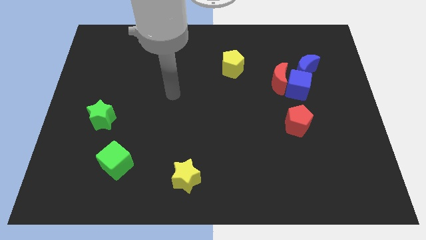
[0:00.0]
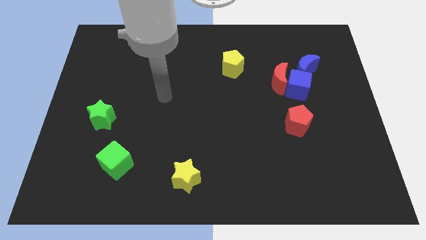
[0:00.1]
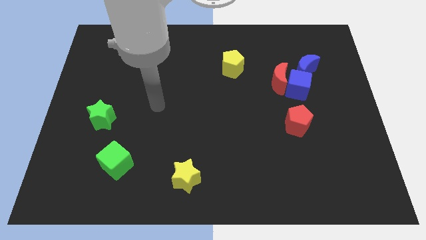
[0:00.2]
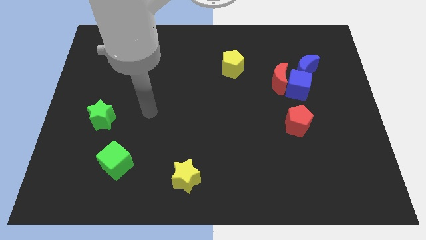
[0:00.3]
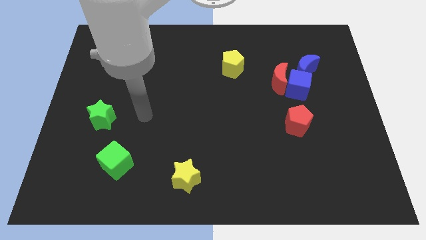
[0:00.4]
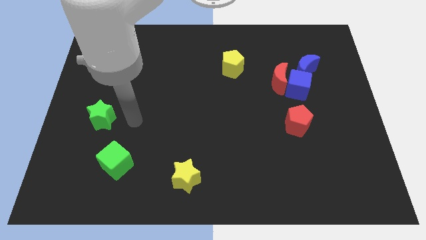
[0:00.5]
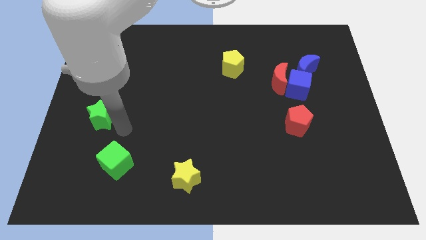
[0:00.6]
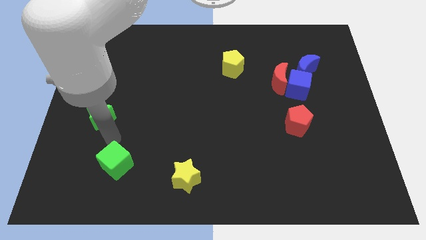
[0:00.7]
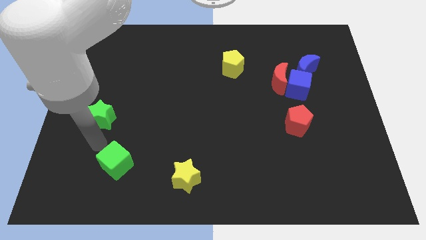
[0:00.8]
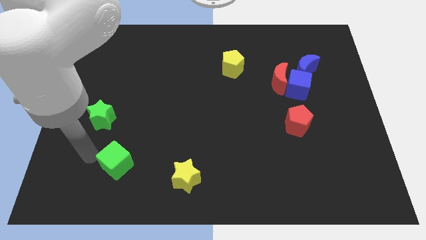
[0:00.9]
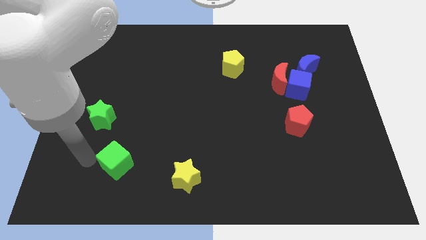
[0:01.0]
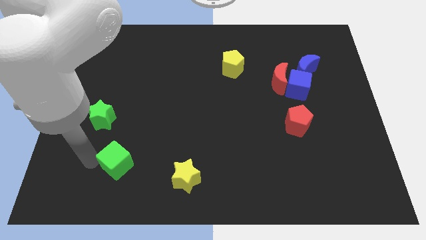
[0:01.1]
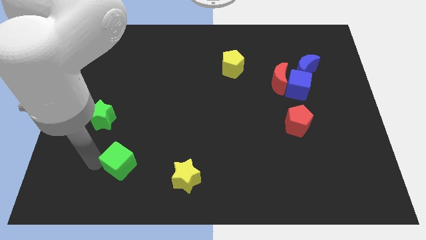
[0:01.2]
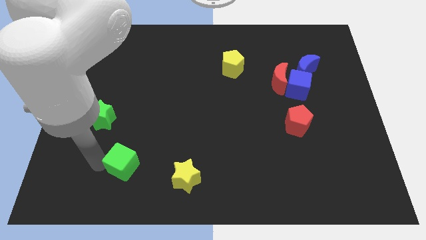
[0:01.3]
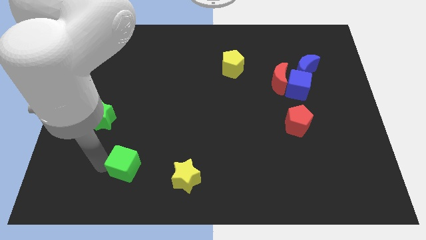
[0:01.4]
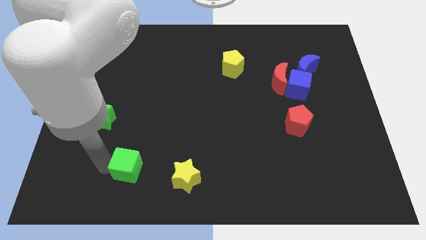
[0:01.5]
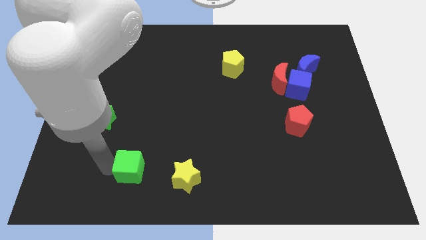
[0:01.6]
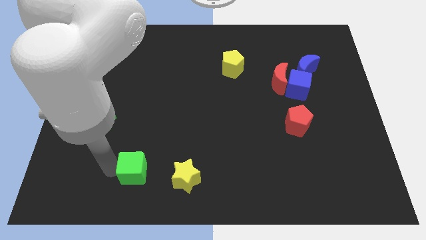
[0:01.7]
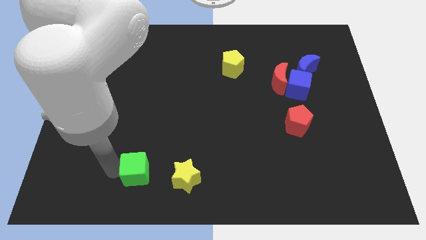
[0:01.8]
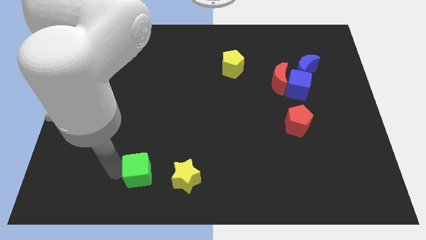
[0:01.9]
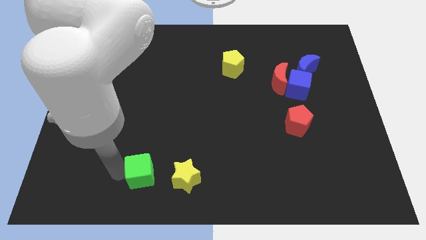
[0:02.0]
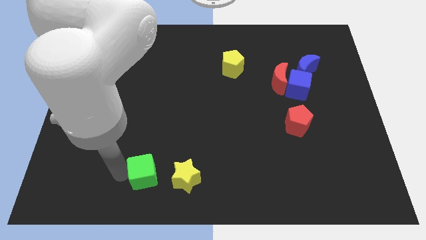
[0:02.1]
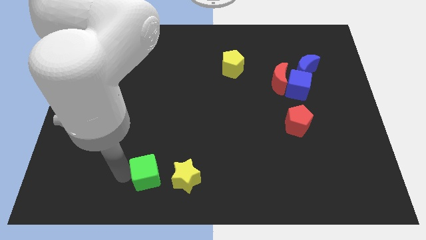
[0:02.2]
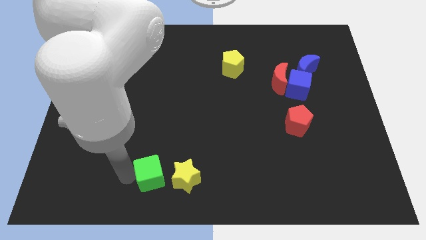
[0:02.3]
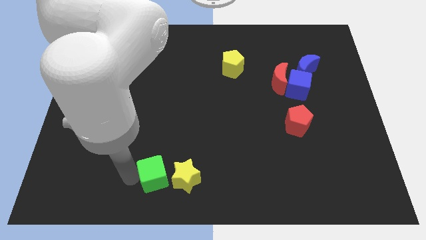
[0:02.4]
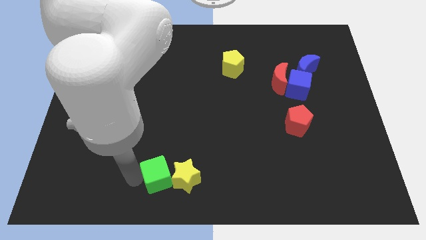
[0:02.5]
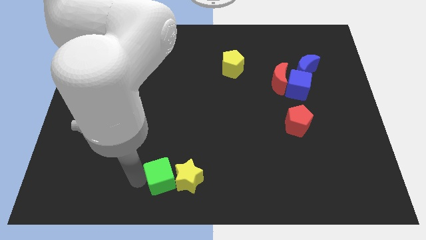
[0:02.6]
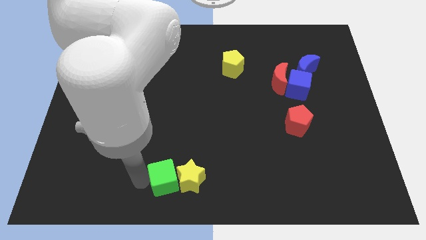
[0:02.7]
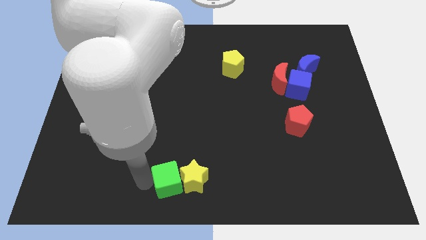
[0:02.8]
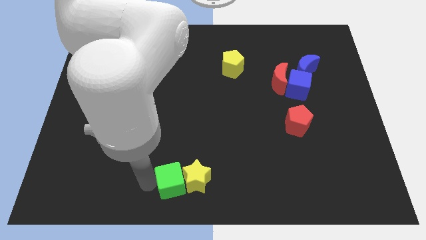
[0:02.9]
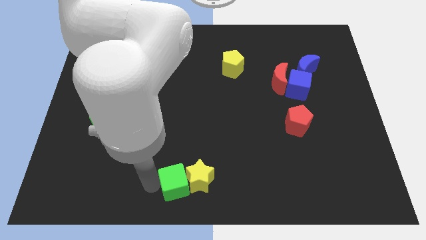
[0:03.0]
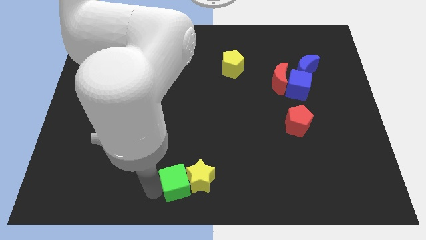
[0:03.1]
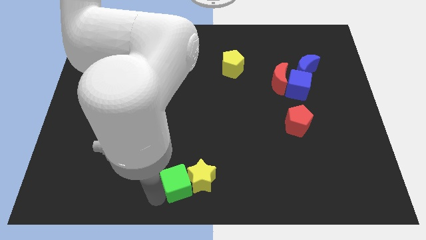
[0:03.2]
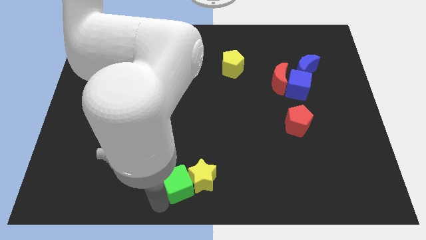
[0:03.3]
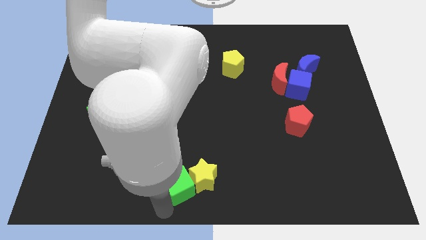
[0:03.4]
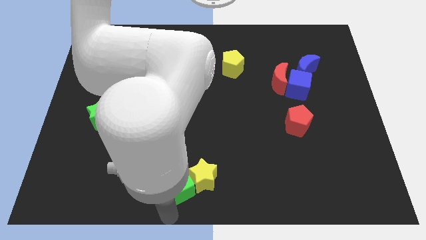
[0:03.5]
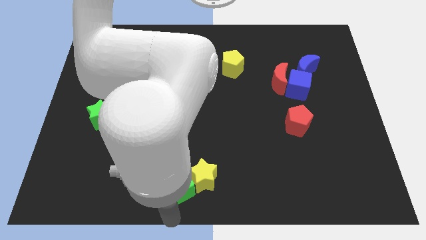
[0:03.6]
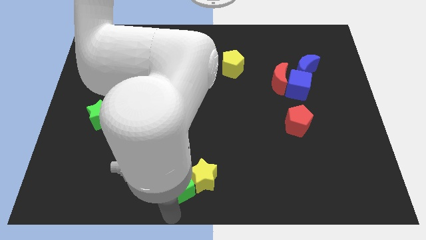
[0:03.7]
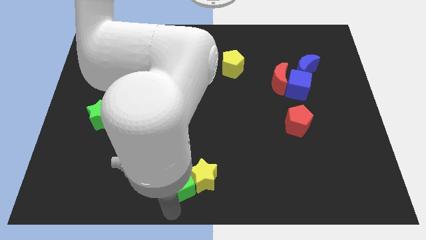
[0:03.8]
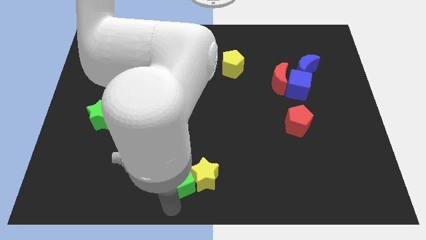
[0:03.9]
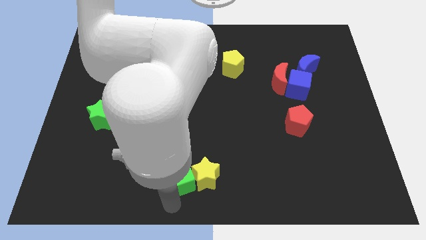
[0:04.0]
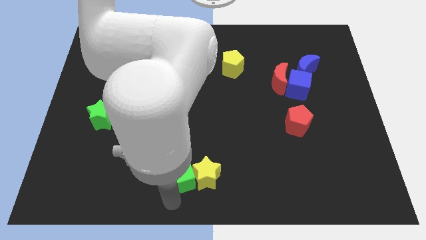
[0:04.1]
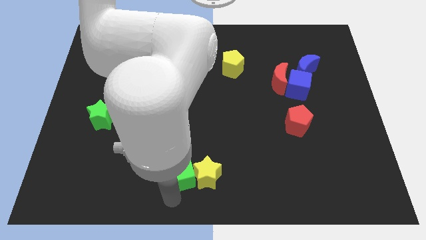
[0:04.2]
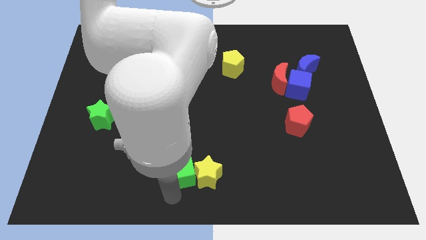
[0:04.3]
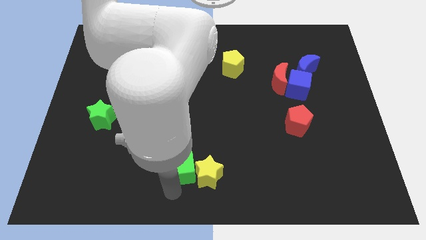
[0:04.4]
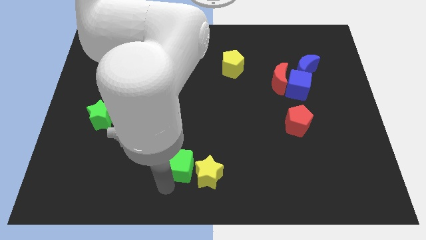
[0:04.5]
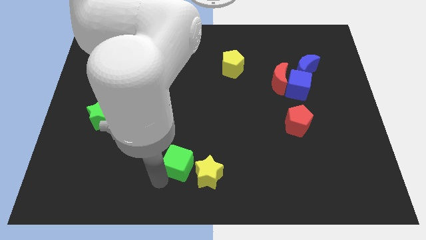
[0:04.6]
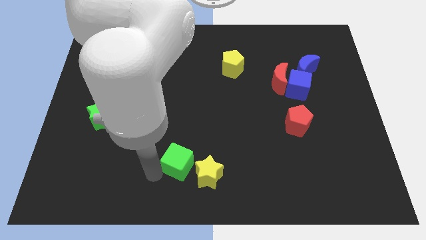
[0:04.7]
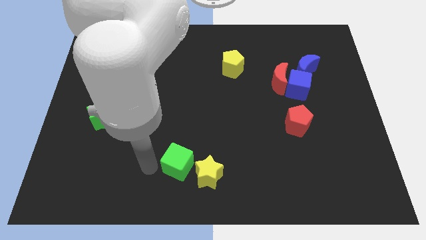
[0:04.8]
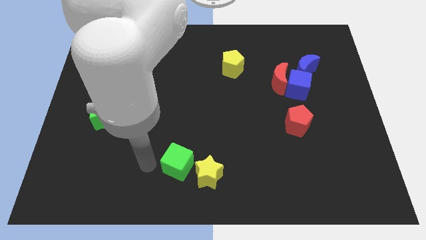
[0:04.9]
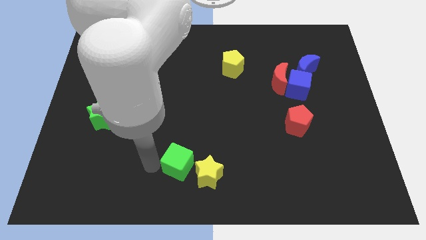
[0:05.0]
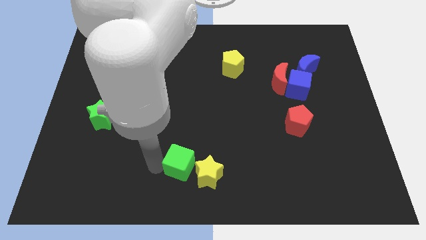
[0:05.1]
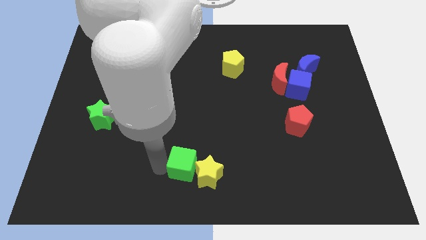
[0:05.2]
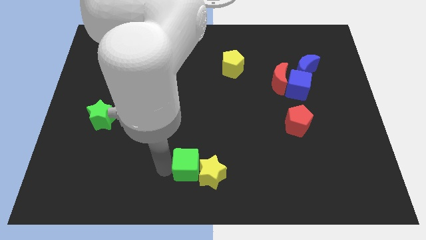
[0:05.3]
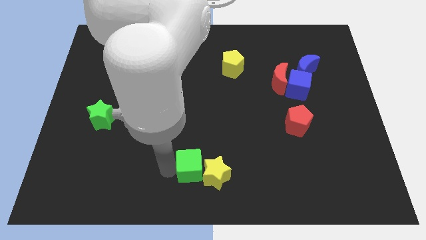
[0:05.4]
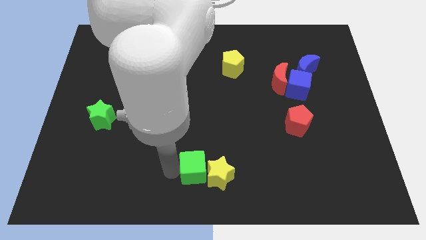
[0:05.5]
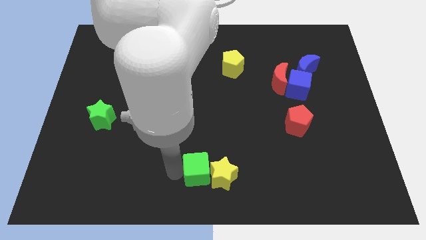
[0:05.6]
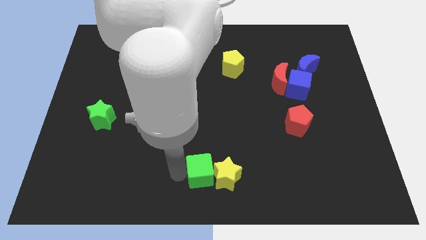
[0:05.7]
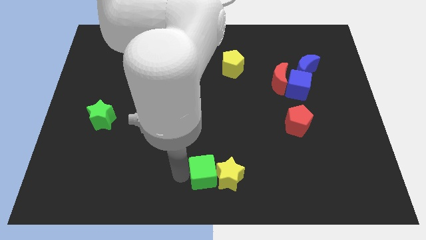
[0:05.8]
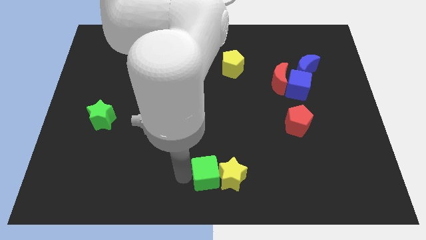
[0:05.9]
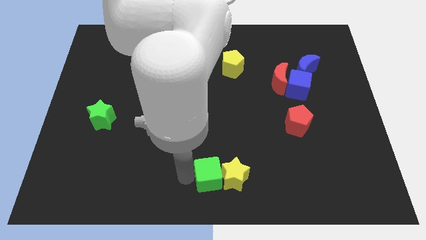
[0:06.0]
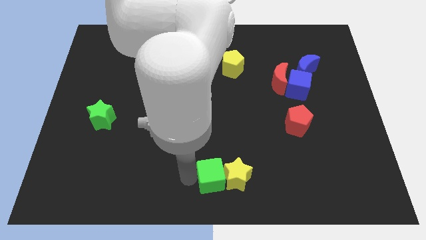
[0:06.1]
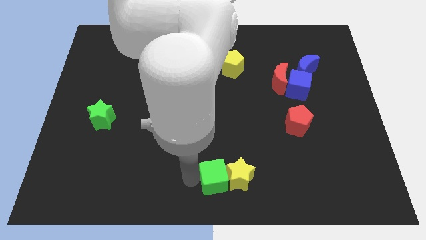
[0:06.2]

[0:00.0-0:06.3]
slide the green cube right

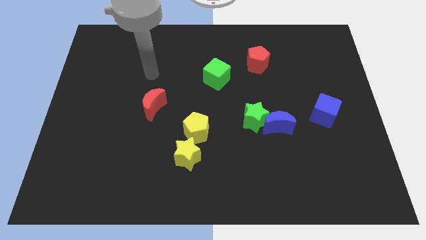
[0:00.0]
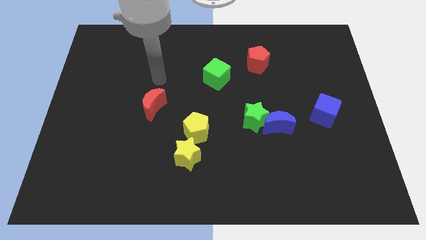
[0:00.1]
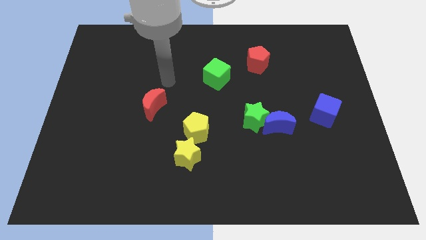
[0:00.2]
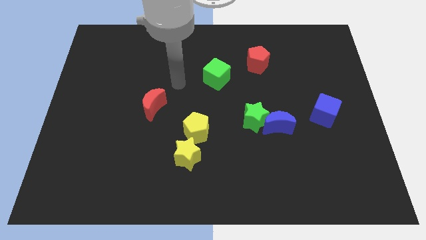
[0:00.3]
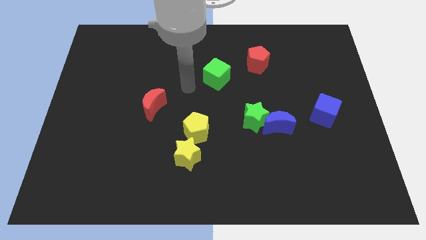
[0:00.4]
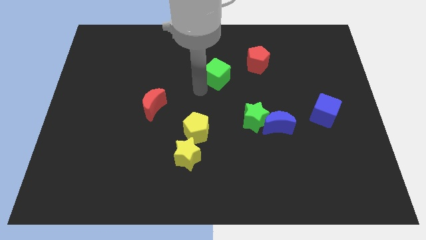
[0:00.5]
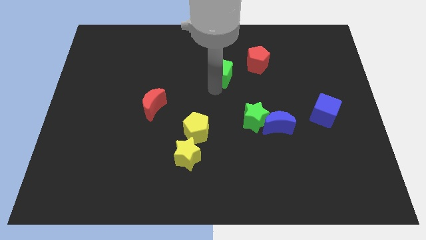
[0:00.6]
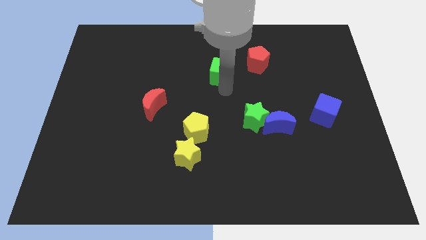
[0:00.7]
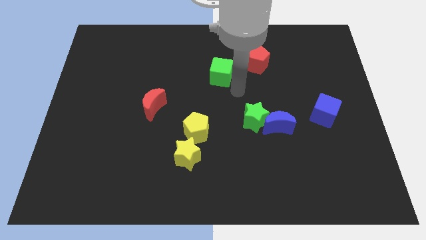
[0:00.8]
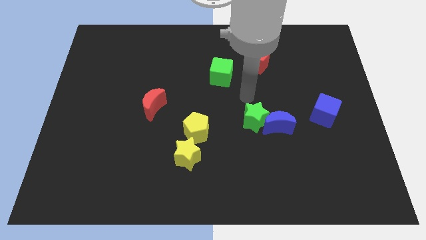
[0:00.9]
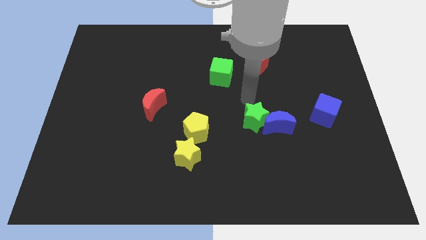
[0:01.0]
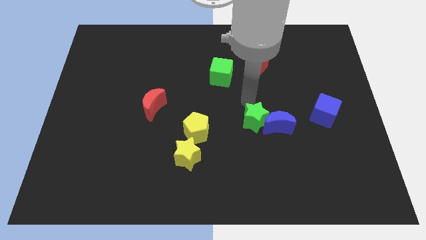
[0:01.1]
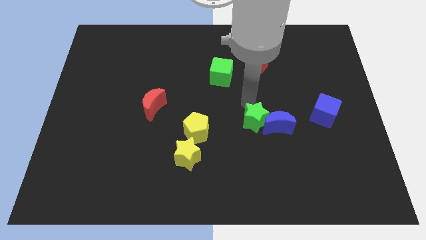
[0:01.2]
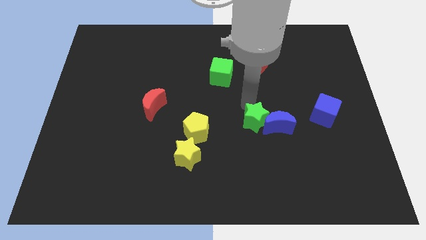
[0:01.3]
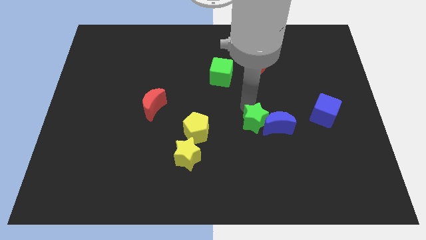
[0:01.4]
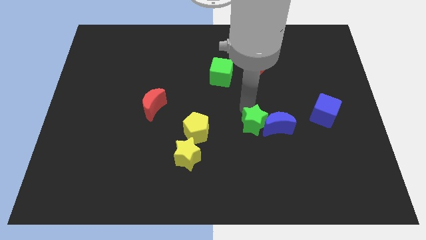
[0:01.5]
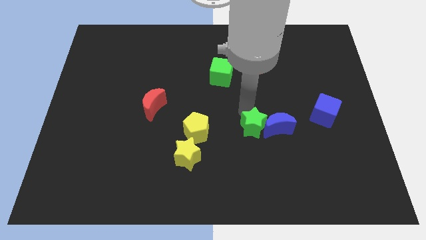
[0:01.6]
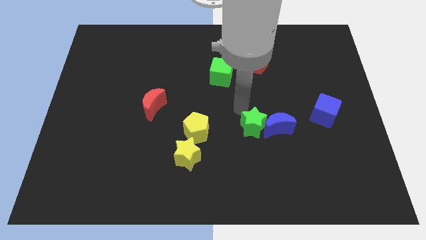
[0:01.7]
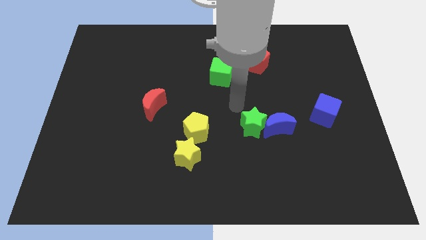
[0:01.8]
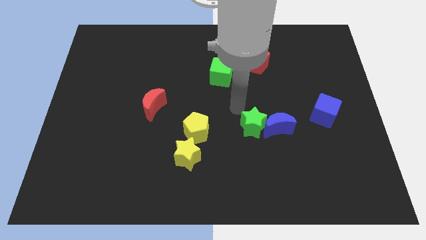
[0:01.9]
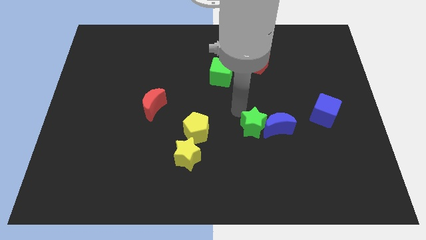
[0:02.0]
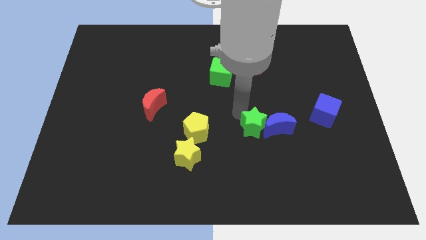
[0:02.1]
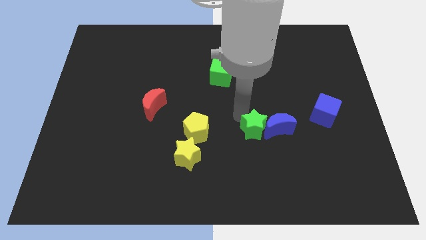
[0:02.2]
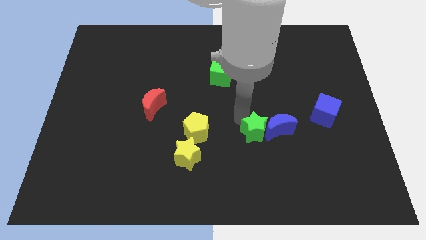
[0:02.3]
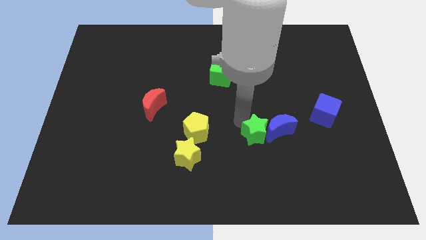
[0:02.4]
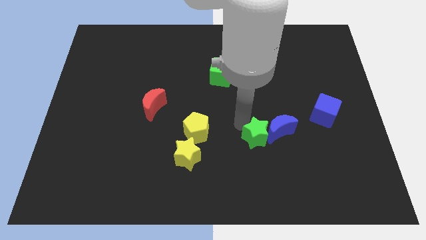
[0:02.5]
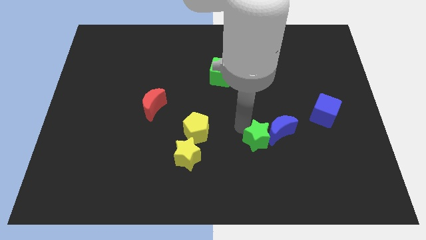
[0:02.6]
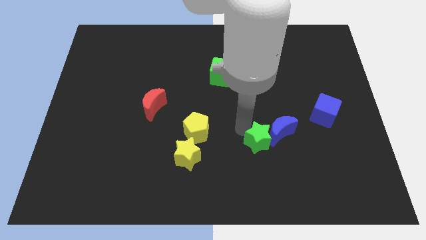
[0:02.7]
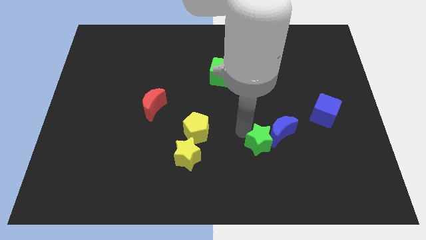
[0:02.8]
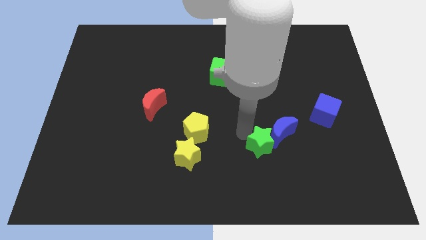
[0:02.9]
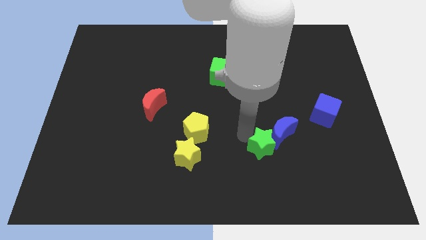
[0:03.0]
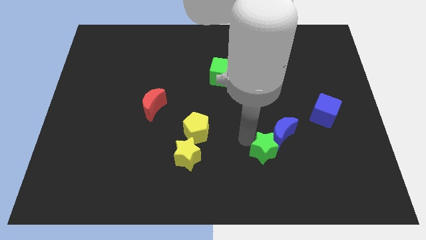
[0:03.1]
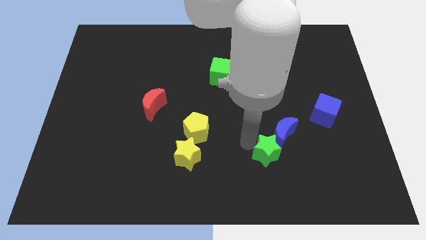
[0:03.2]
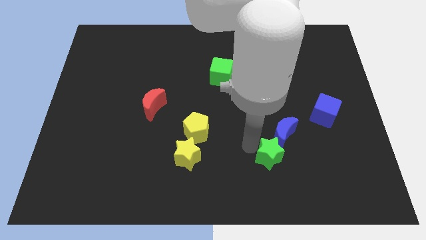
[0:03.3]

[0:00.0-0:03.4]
slide the green star downwards and to the right a little
